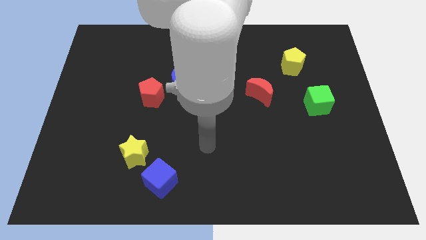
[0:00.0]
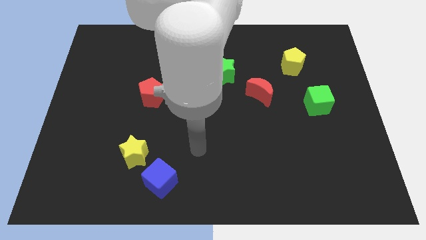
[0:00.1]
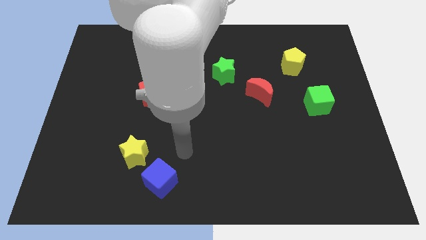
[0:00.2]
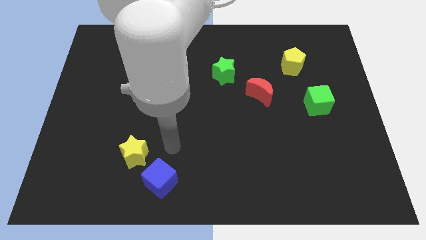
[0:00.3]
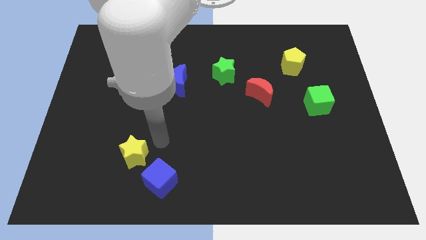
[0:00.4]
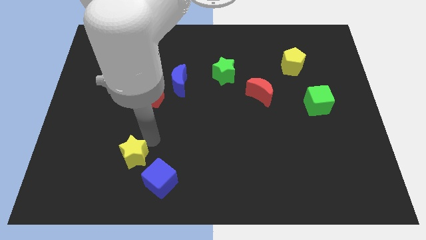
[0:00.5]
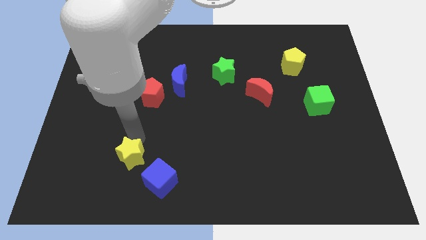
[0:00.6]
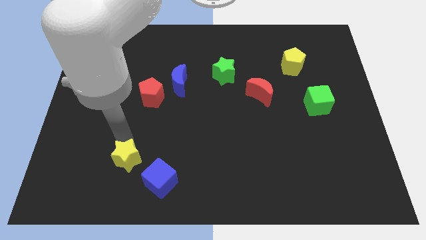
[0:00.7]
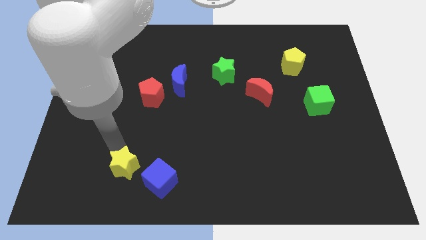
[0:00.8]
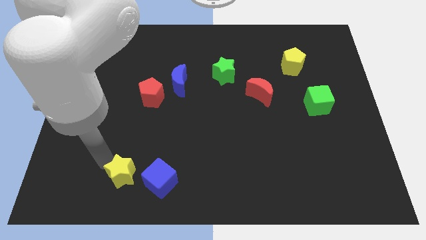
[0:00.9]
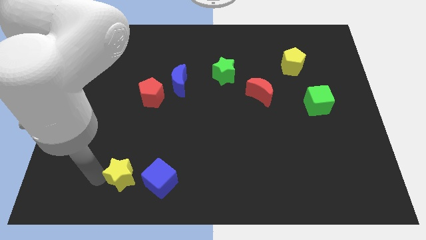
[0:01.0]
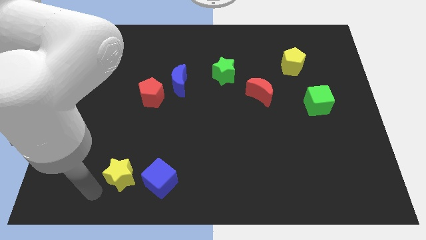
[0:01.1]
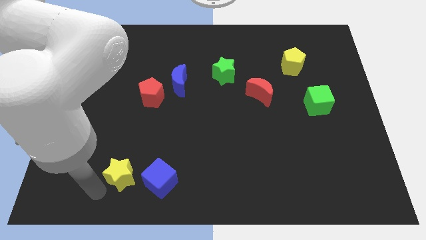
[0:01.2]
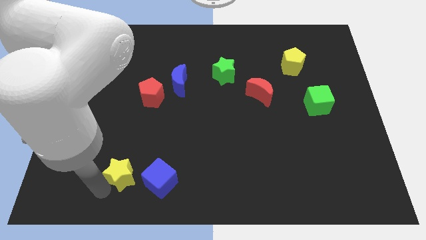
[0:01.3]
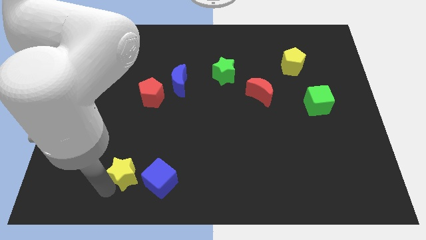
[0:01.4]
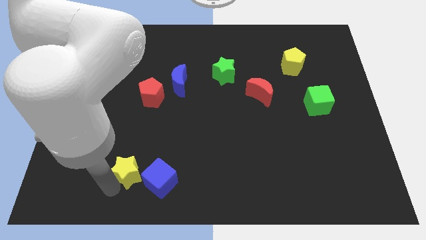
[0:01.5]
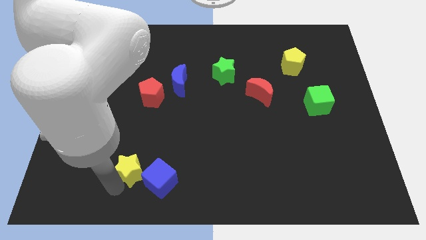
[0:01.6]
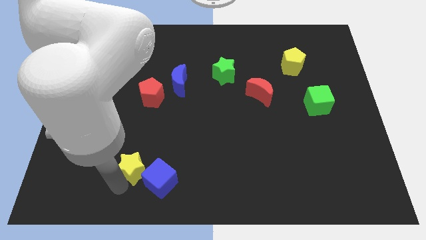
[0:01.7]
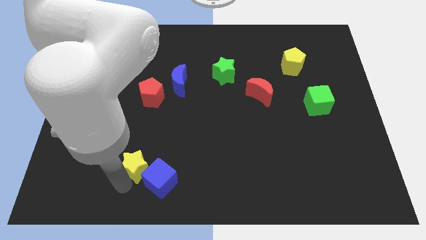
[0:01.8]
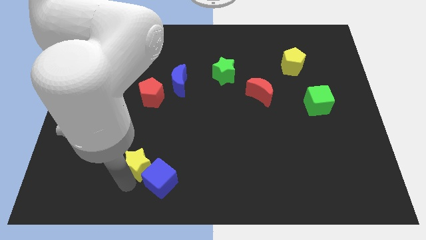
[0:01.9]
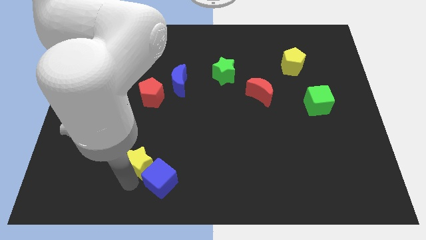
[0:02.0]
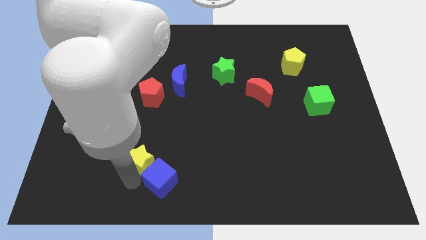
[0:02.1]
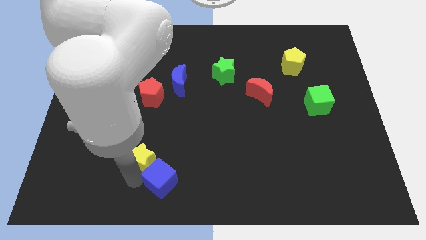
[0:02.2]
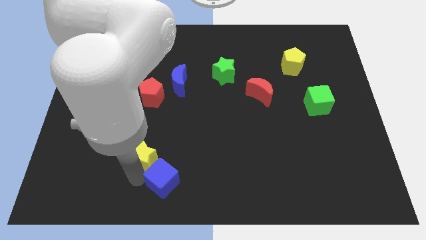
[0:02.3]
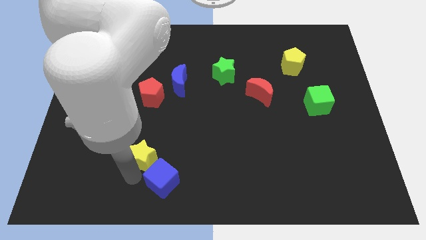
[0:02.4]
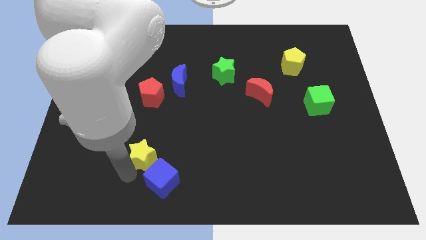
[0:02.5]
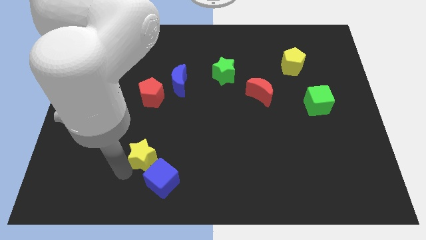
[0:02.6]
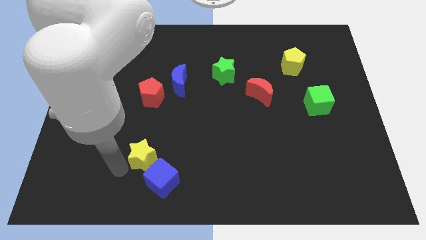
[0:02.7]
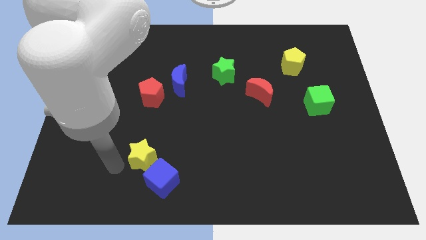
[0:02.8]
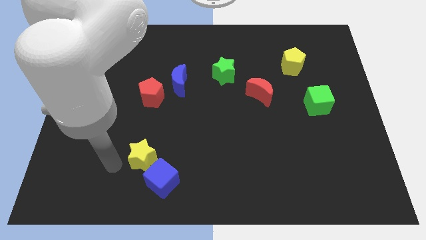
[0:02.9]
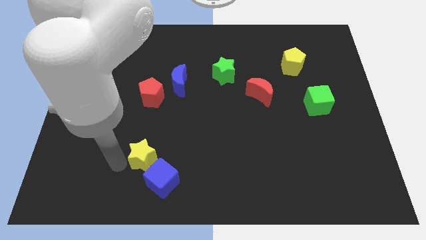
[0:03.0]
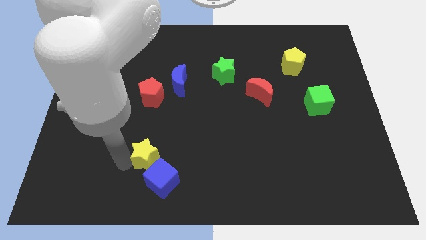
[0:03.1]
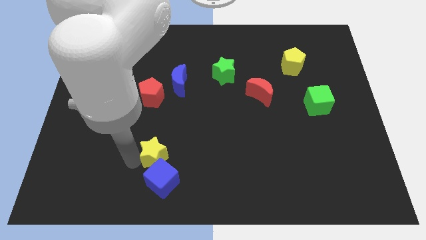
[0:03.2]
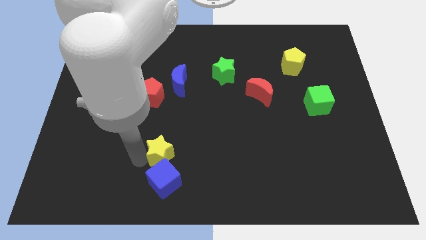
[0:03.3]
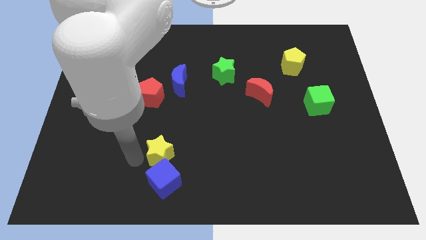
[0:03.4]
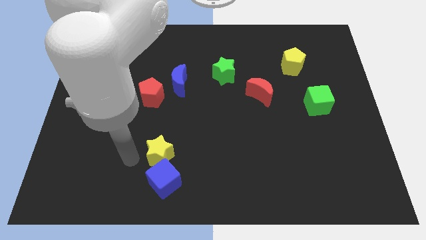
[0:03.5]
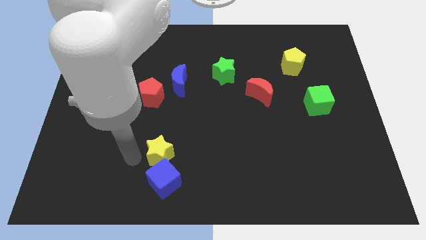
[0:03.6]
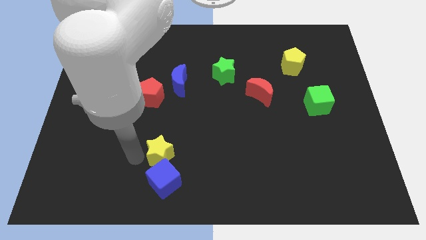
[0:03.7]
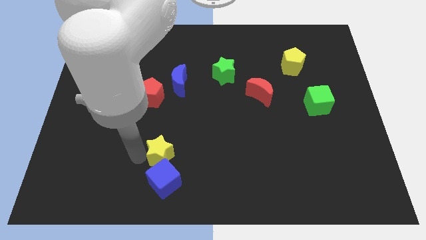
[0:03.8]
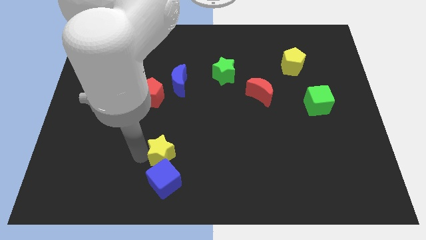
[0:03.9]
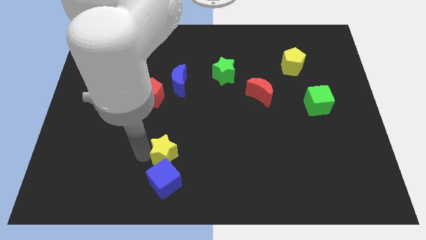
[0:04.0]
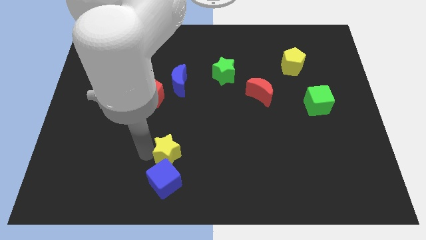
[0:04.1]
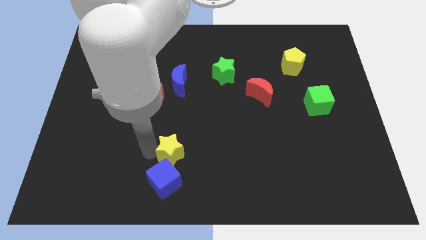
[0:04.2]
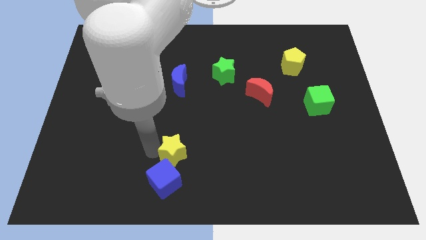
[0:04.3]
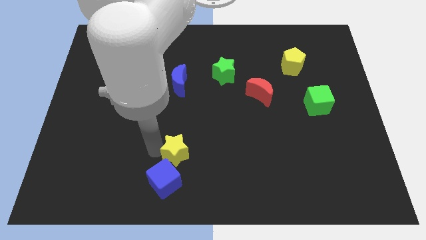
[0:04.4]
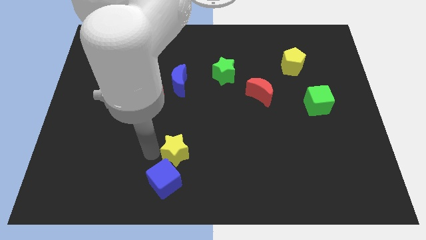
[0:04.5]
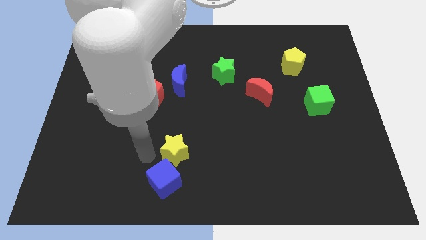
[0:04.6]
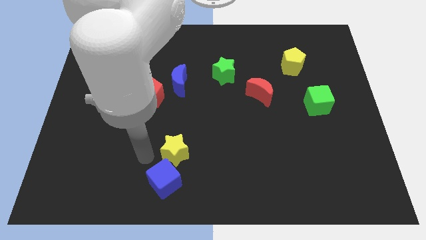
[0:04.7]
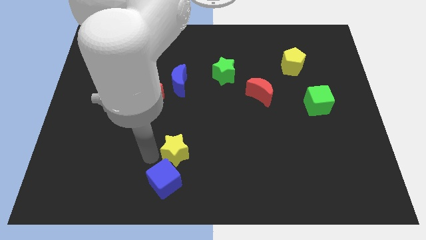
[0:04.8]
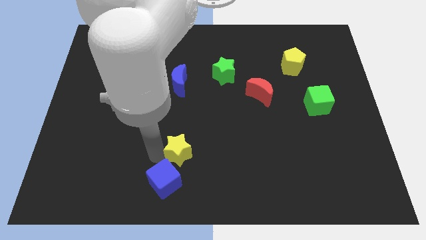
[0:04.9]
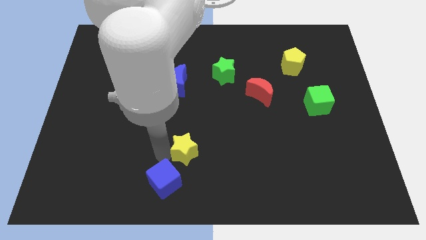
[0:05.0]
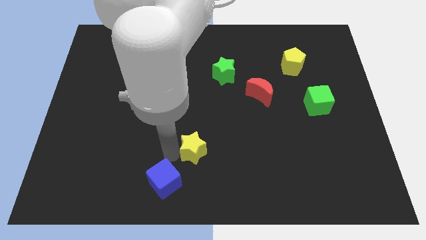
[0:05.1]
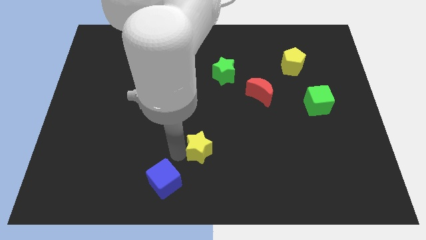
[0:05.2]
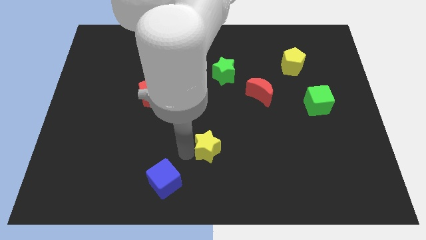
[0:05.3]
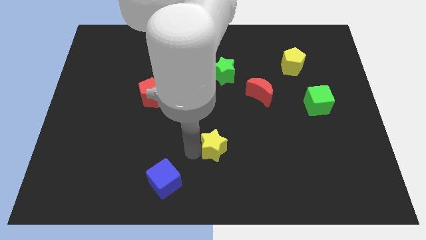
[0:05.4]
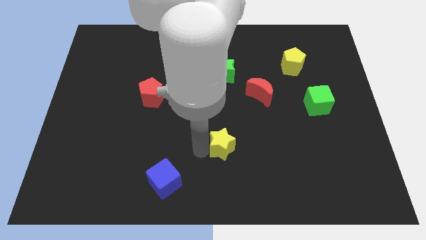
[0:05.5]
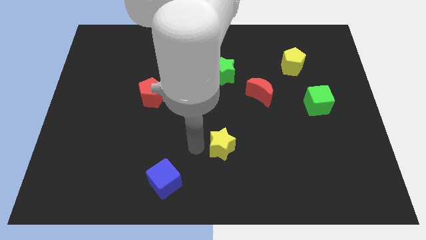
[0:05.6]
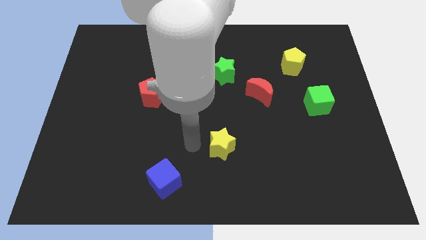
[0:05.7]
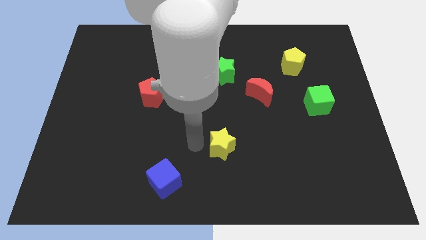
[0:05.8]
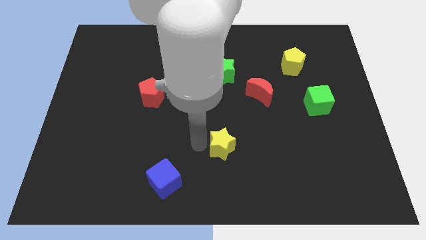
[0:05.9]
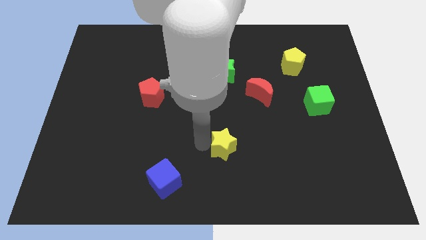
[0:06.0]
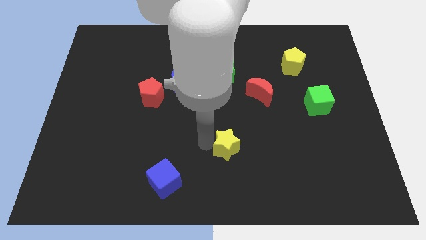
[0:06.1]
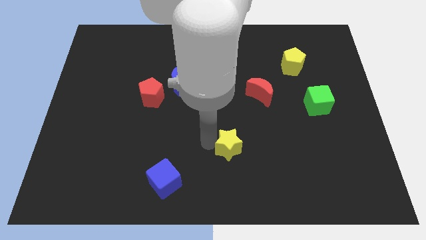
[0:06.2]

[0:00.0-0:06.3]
slide the yellow star to the right

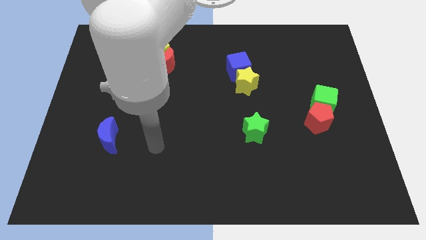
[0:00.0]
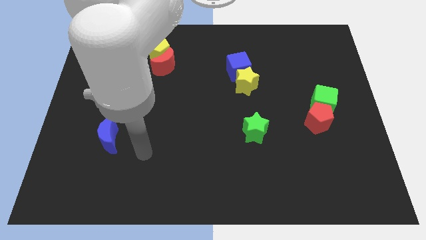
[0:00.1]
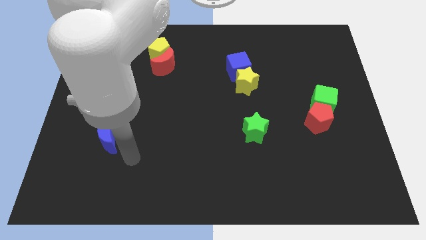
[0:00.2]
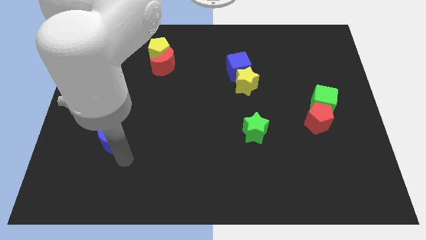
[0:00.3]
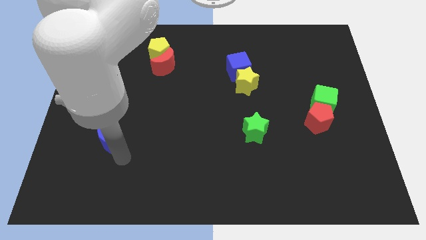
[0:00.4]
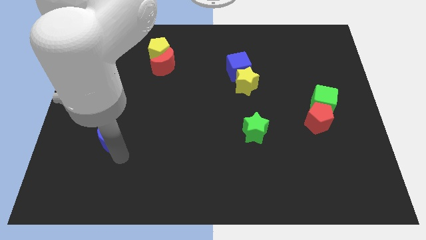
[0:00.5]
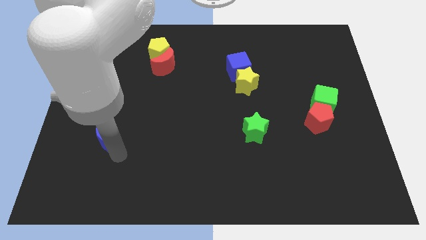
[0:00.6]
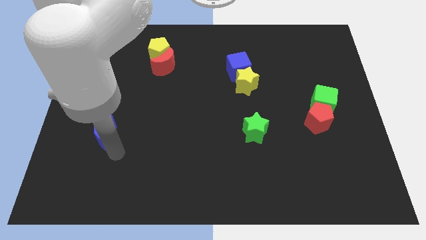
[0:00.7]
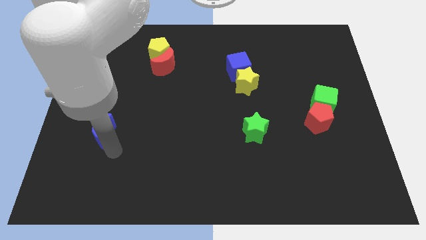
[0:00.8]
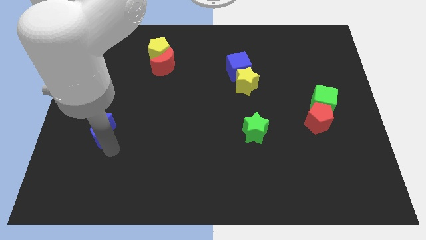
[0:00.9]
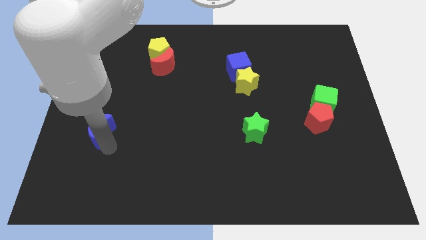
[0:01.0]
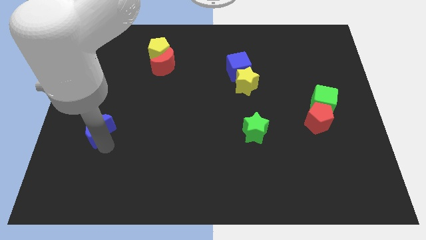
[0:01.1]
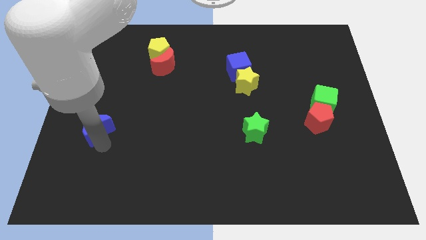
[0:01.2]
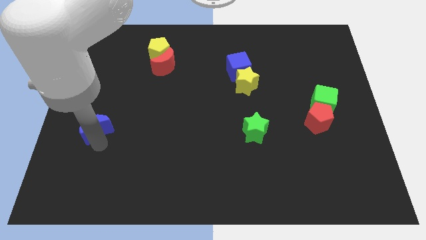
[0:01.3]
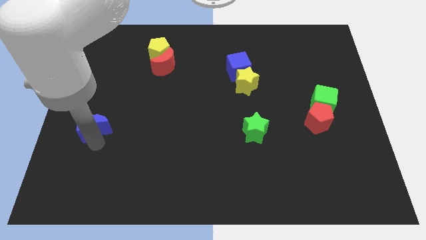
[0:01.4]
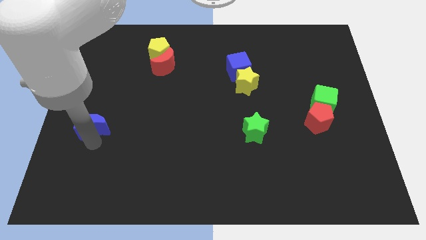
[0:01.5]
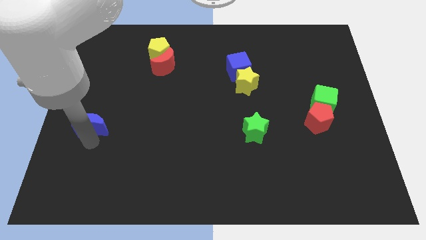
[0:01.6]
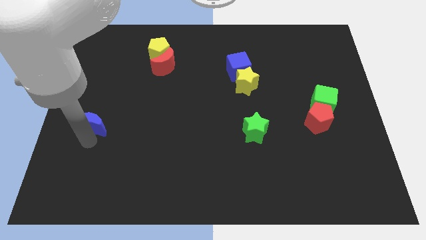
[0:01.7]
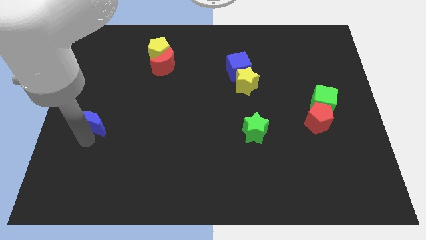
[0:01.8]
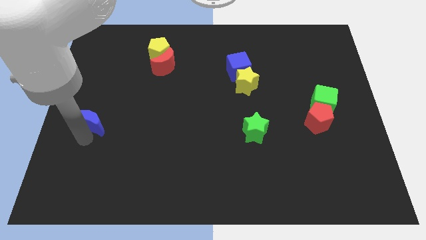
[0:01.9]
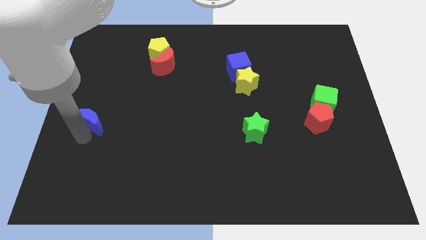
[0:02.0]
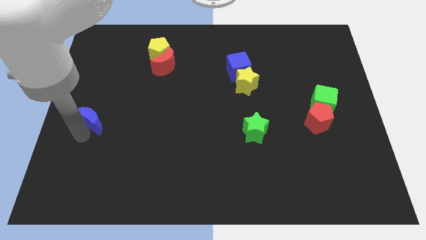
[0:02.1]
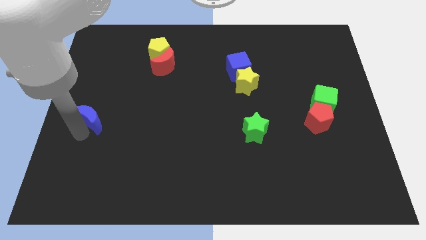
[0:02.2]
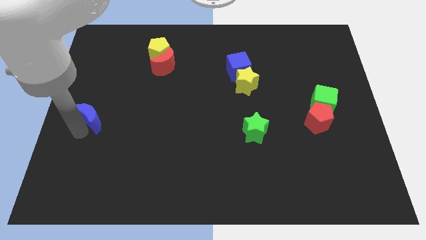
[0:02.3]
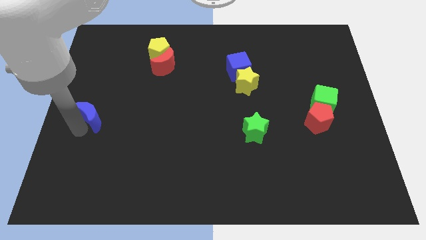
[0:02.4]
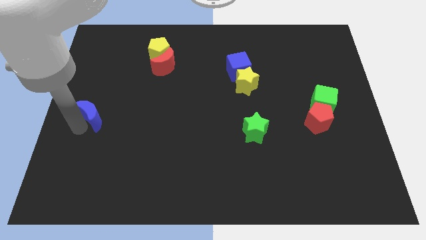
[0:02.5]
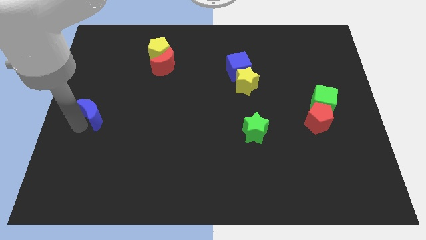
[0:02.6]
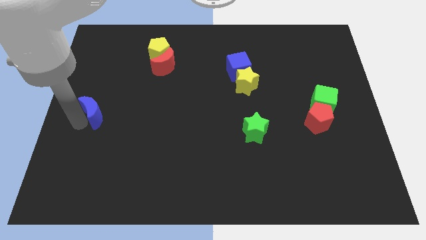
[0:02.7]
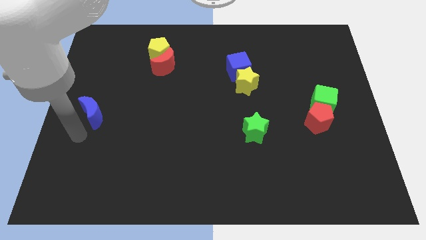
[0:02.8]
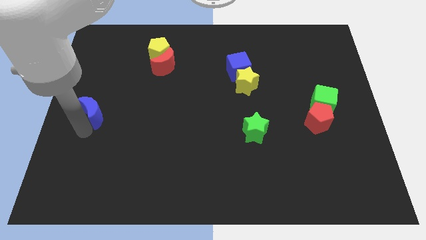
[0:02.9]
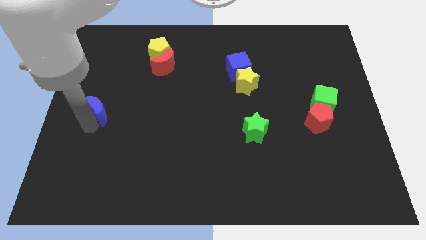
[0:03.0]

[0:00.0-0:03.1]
slightly slide the blue moon up
